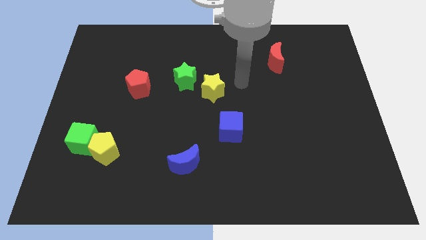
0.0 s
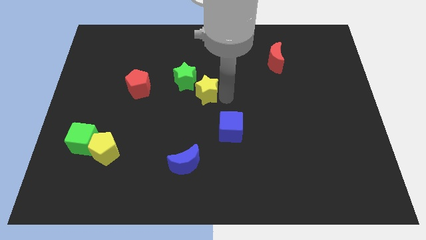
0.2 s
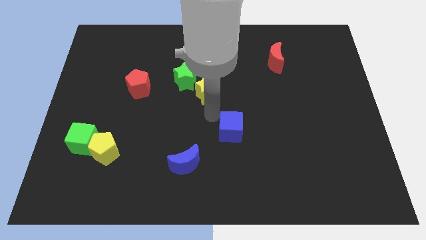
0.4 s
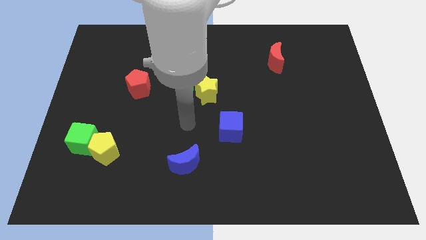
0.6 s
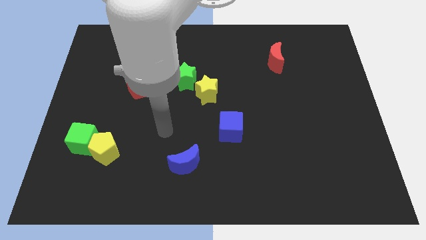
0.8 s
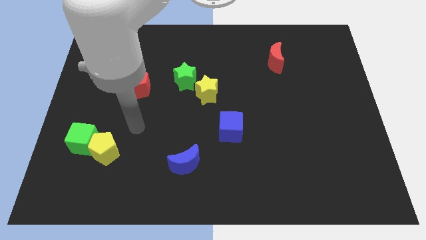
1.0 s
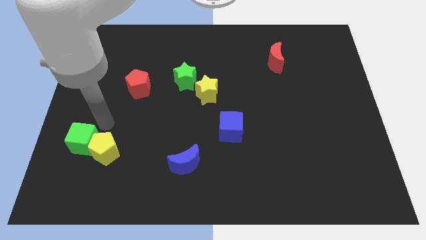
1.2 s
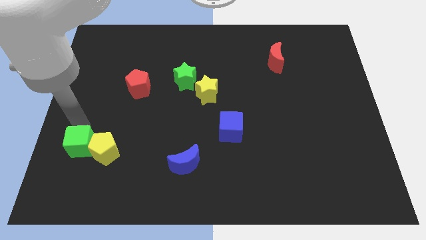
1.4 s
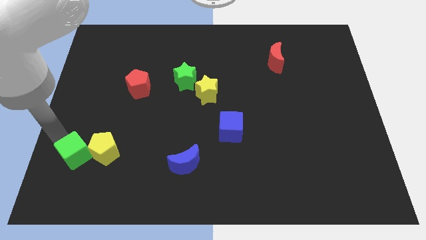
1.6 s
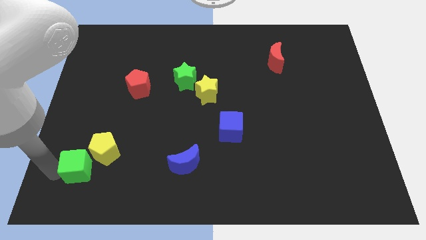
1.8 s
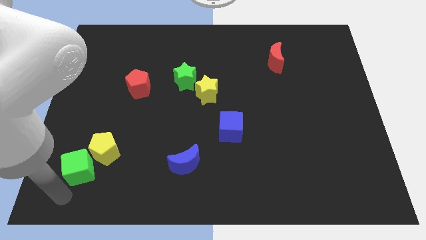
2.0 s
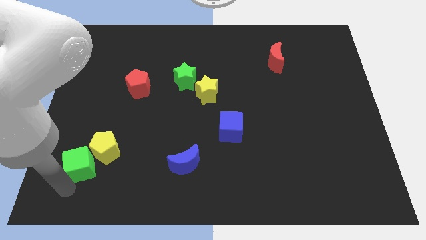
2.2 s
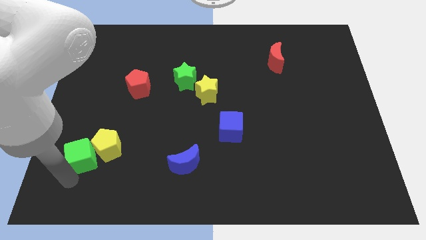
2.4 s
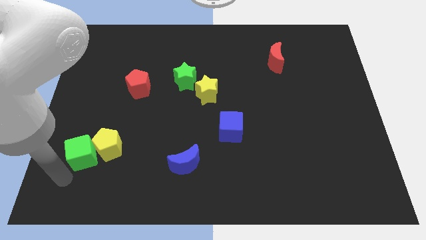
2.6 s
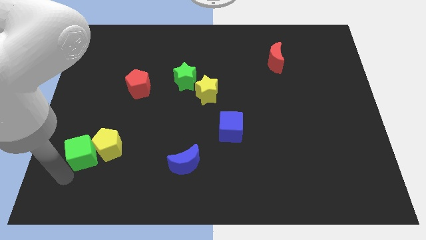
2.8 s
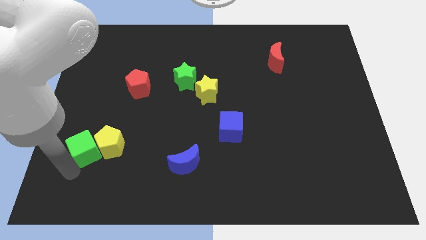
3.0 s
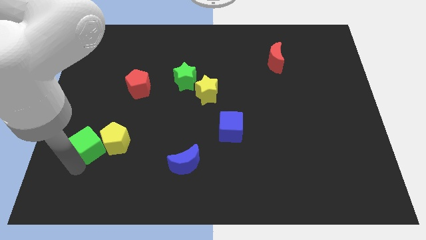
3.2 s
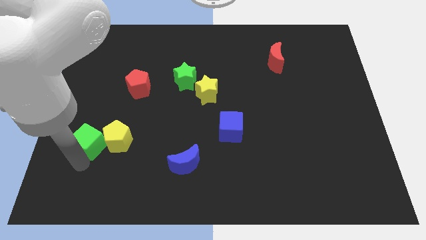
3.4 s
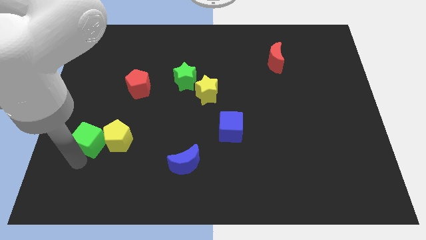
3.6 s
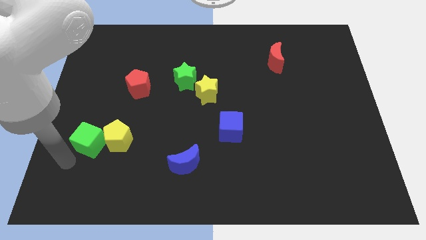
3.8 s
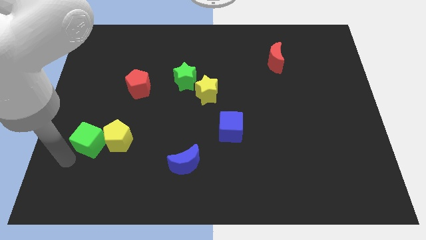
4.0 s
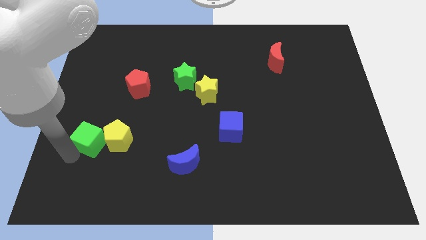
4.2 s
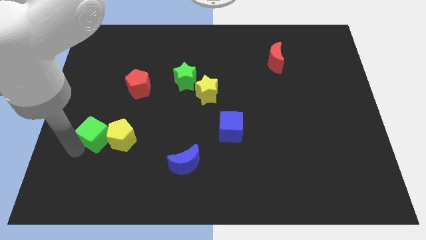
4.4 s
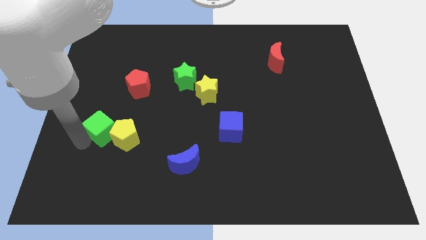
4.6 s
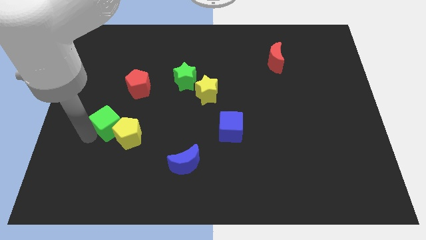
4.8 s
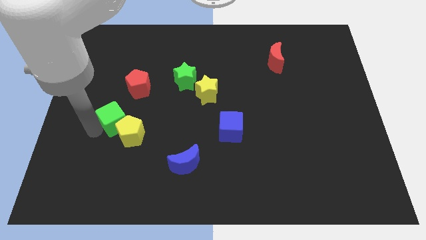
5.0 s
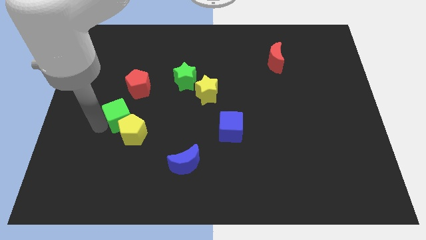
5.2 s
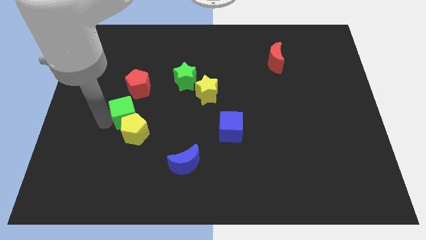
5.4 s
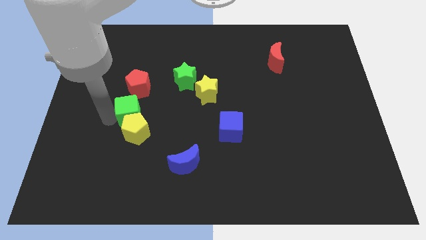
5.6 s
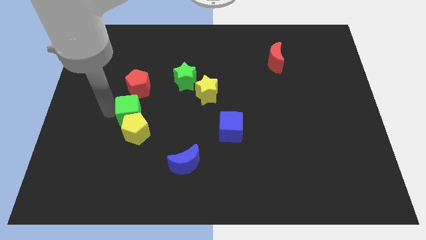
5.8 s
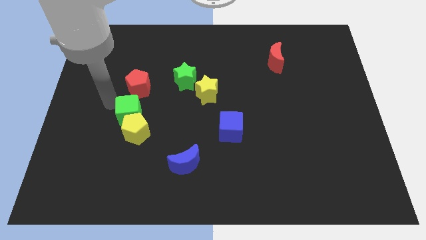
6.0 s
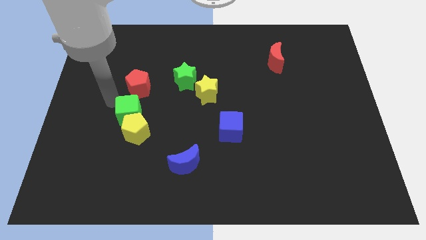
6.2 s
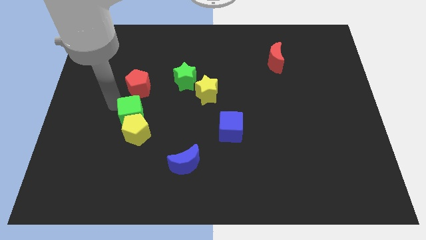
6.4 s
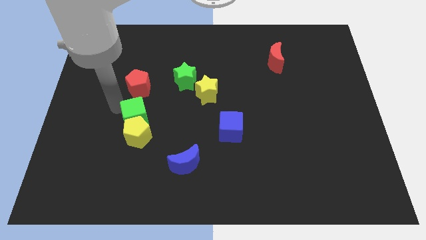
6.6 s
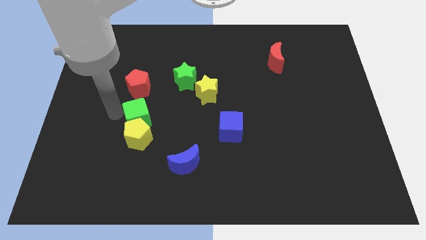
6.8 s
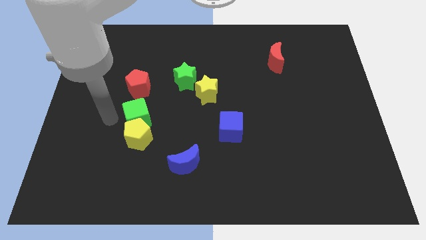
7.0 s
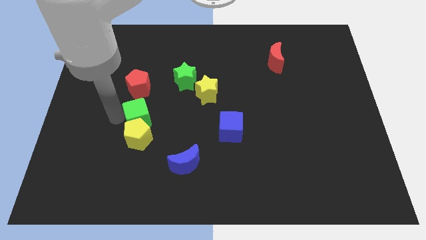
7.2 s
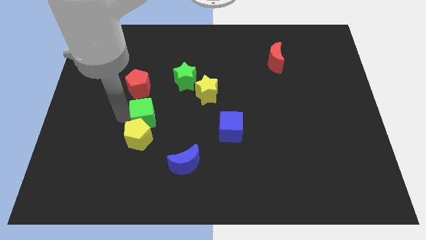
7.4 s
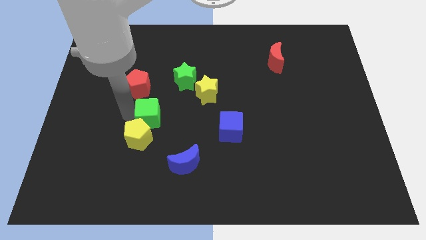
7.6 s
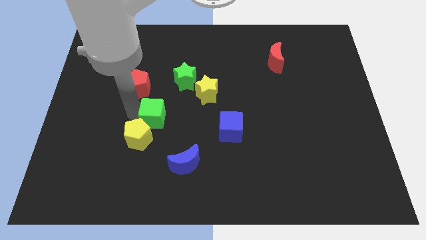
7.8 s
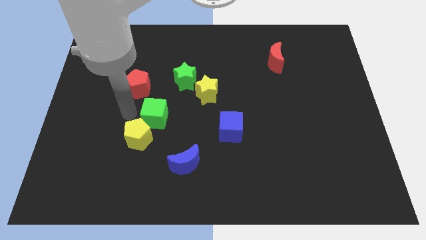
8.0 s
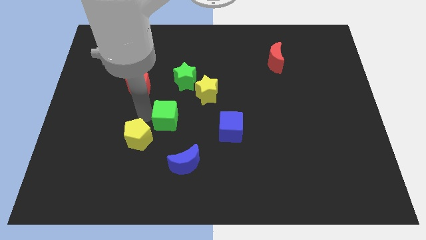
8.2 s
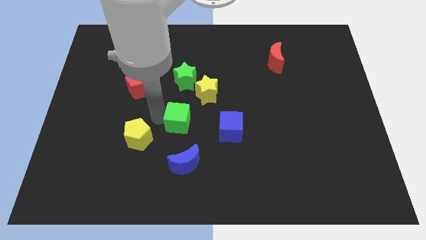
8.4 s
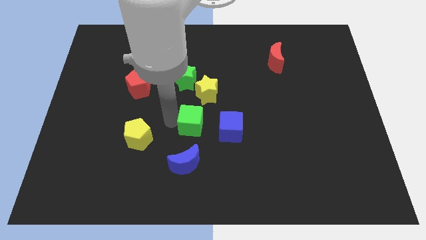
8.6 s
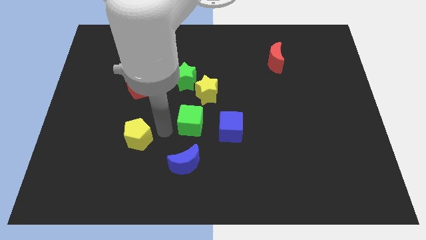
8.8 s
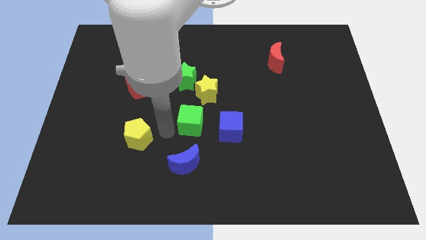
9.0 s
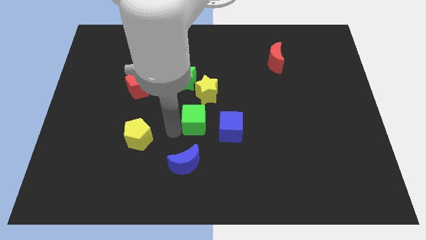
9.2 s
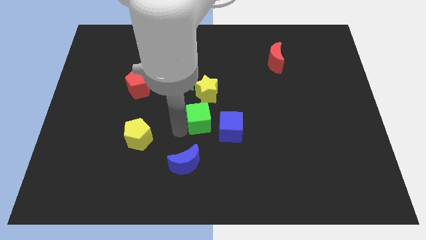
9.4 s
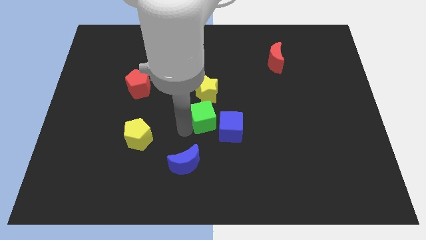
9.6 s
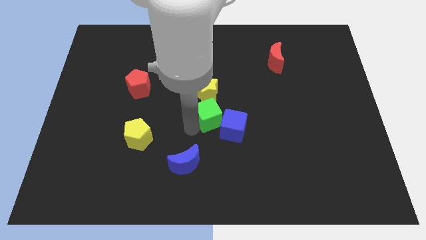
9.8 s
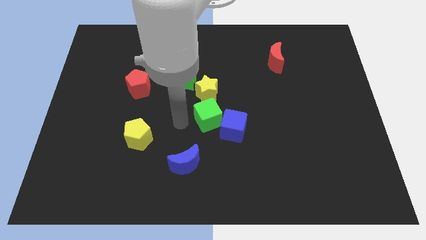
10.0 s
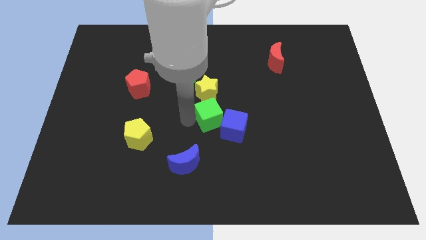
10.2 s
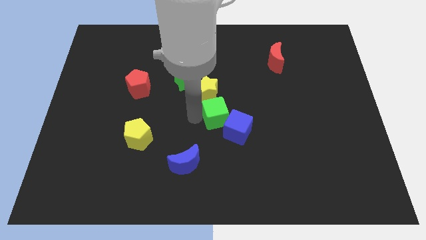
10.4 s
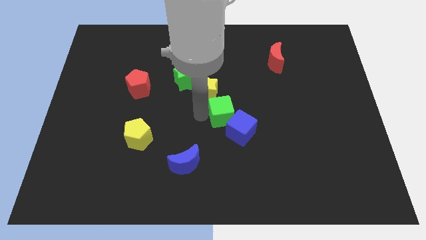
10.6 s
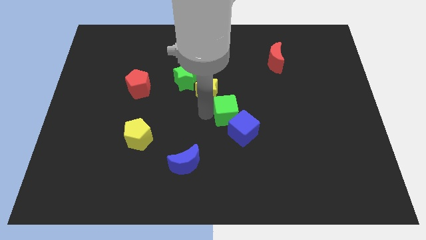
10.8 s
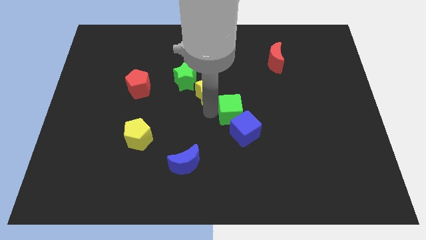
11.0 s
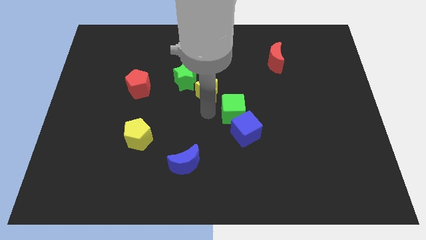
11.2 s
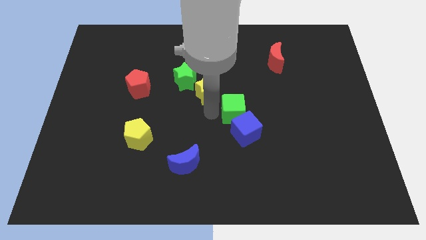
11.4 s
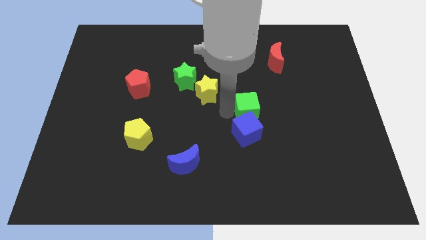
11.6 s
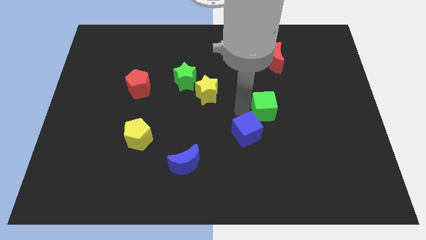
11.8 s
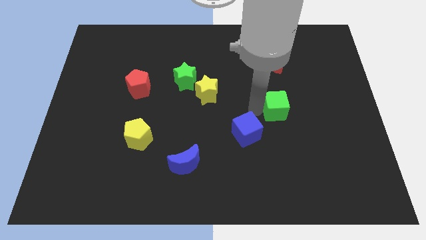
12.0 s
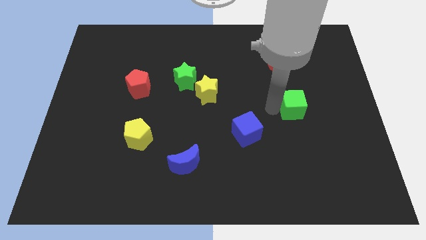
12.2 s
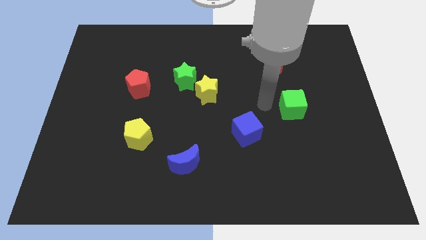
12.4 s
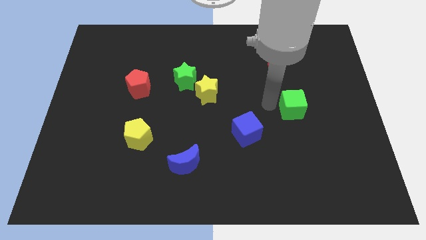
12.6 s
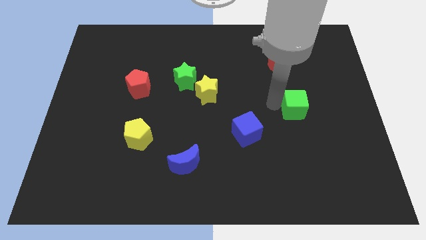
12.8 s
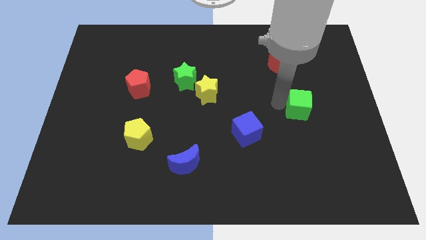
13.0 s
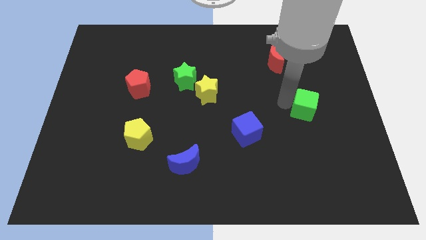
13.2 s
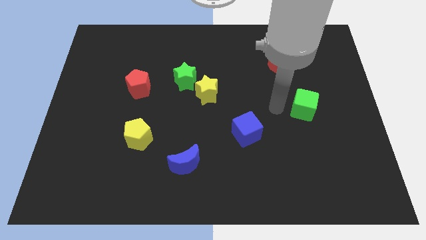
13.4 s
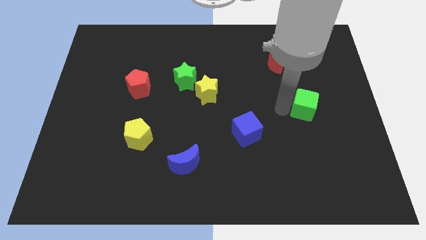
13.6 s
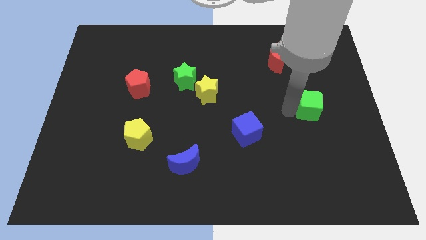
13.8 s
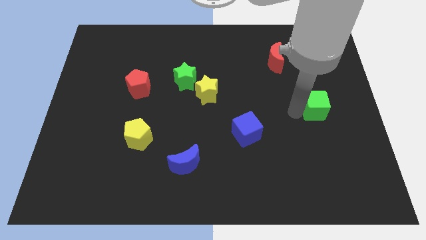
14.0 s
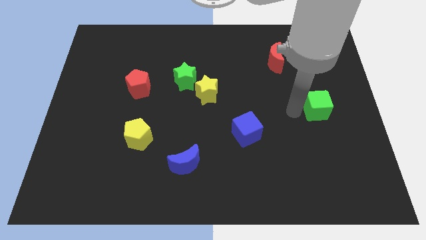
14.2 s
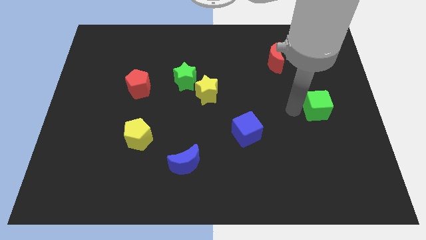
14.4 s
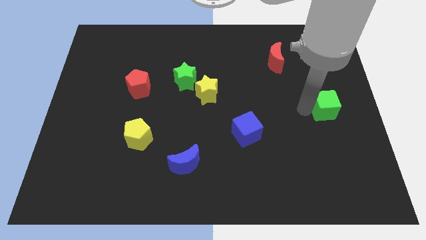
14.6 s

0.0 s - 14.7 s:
move the green cube to the right side
